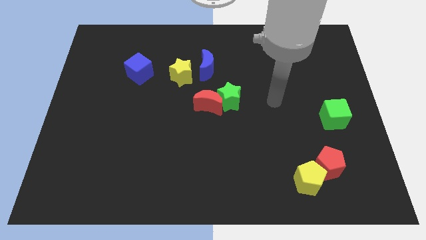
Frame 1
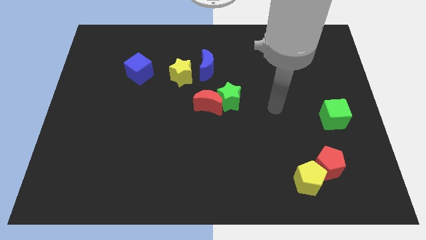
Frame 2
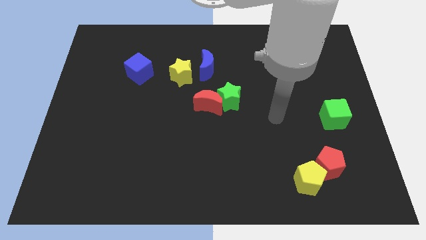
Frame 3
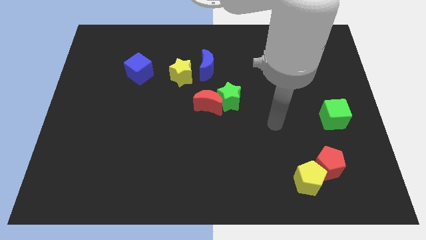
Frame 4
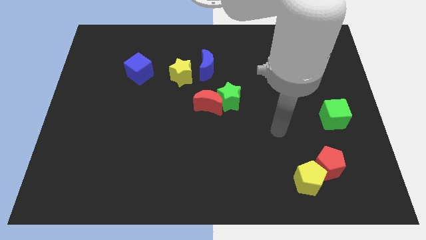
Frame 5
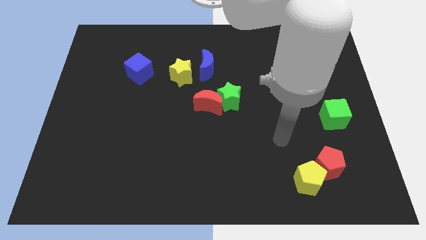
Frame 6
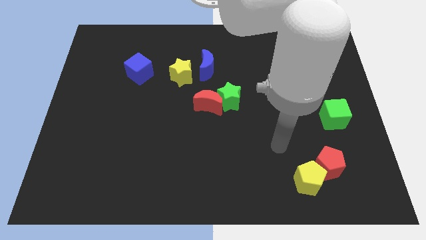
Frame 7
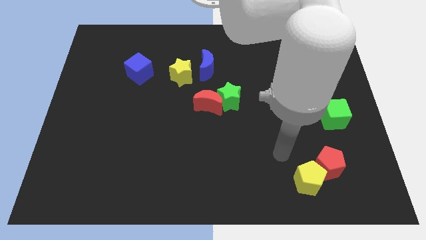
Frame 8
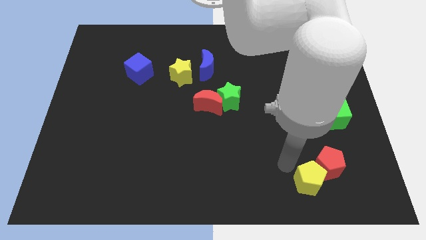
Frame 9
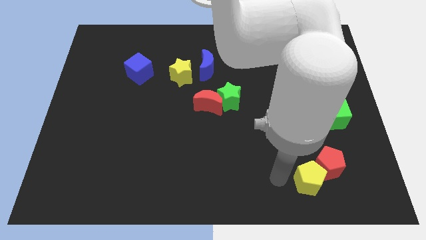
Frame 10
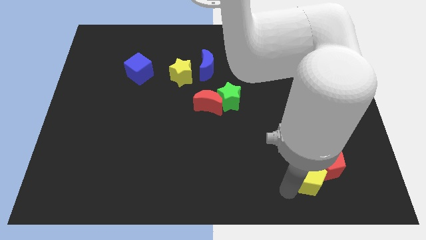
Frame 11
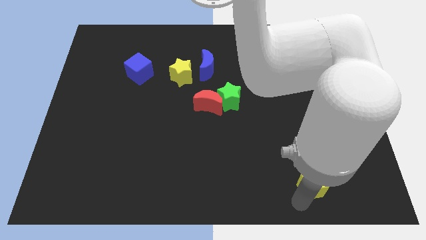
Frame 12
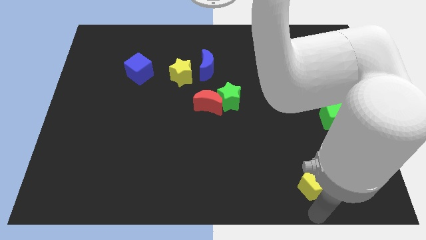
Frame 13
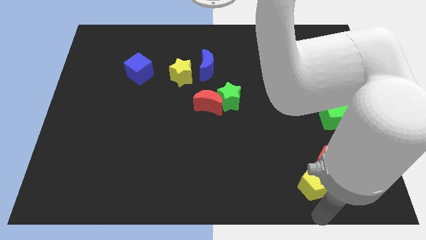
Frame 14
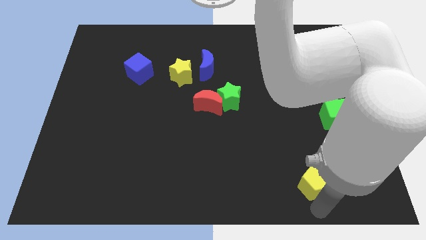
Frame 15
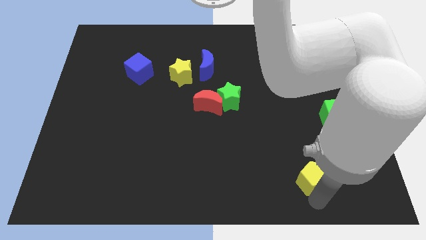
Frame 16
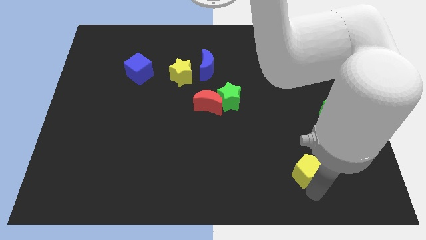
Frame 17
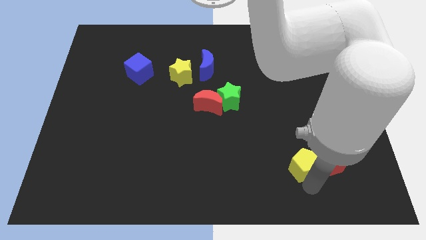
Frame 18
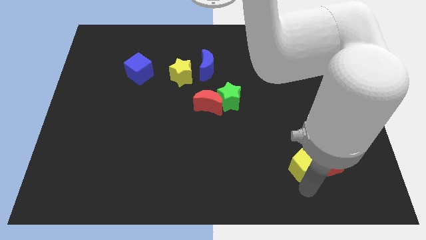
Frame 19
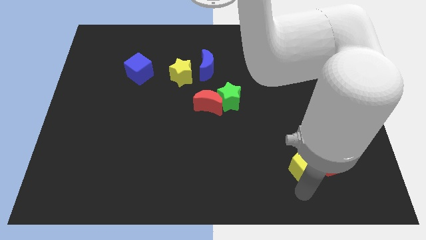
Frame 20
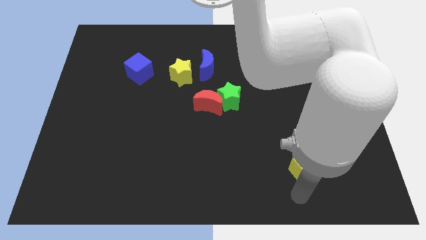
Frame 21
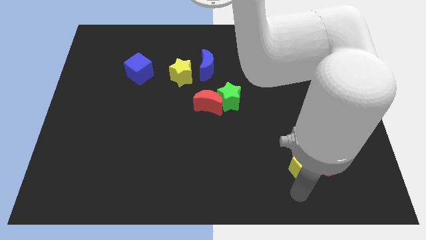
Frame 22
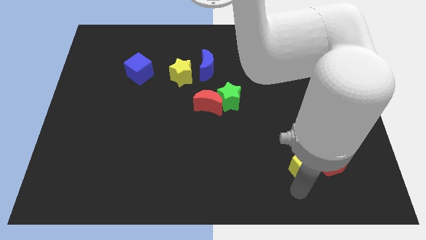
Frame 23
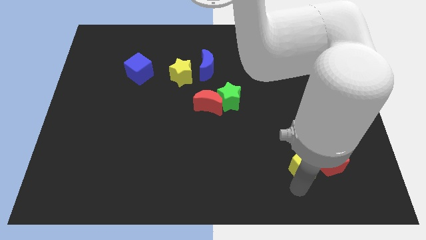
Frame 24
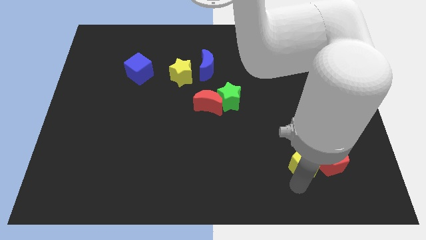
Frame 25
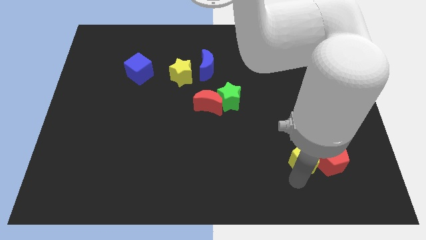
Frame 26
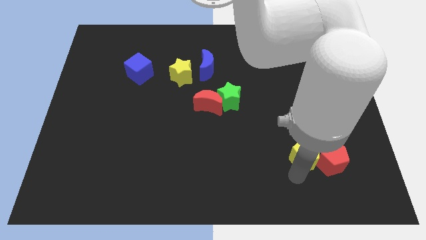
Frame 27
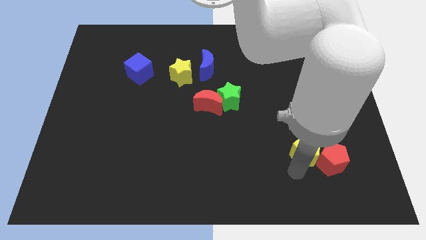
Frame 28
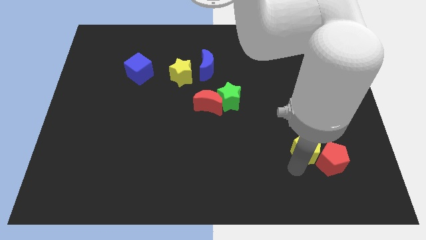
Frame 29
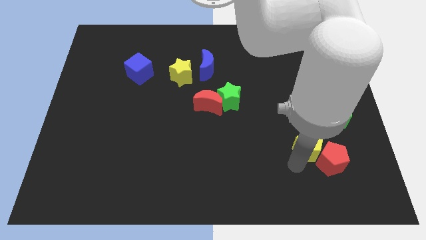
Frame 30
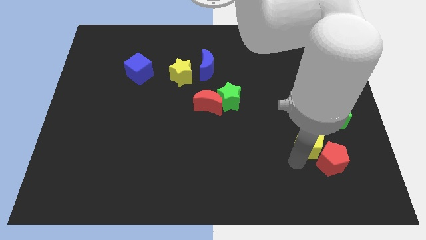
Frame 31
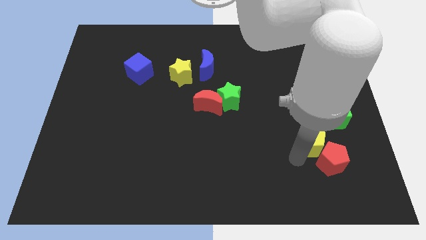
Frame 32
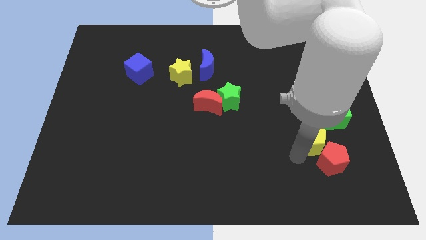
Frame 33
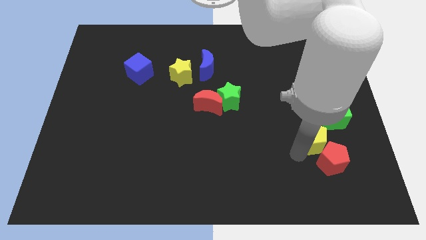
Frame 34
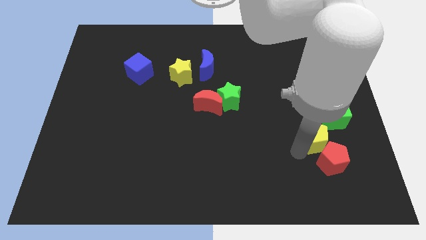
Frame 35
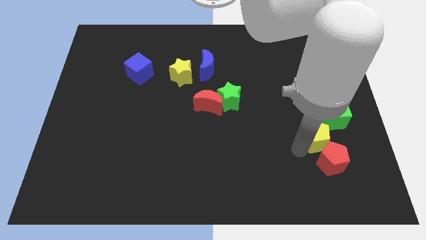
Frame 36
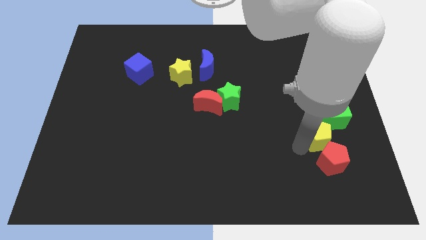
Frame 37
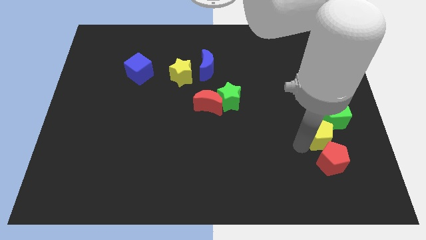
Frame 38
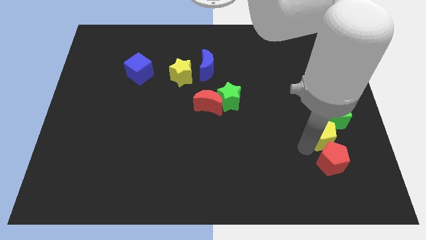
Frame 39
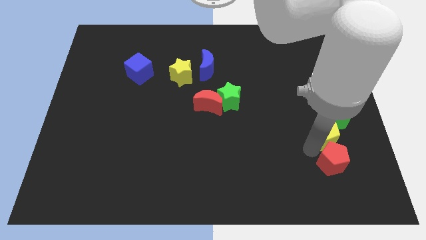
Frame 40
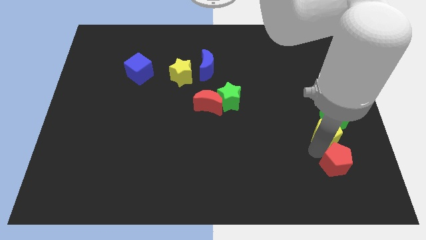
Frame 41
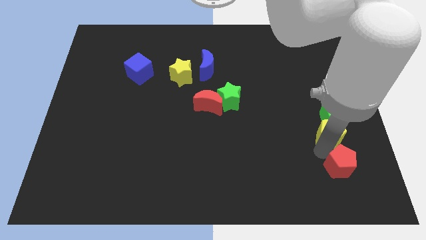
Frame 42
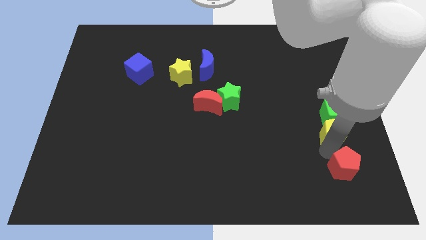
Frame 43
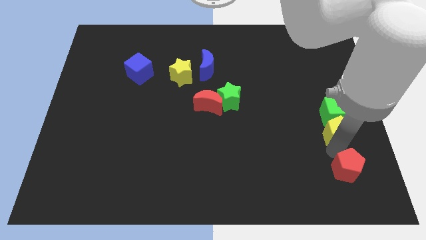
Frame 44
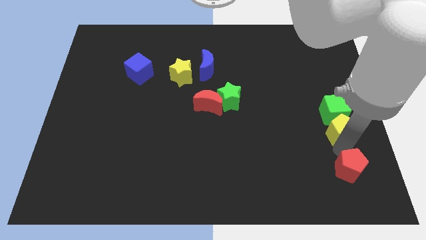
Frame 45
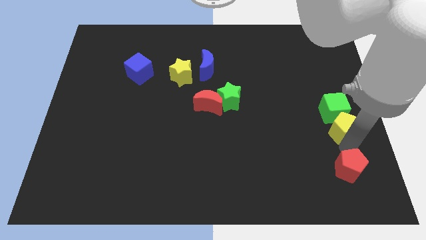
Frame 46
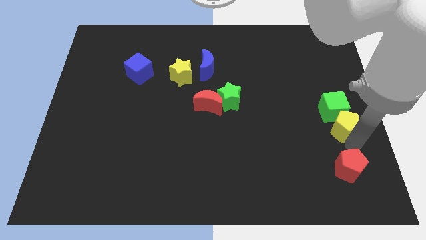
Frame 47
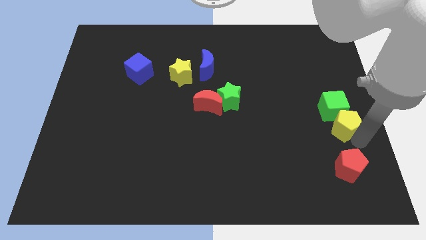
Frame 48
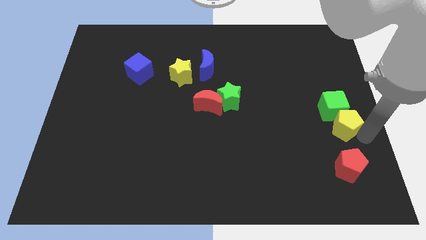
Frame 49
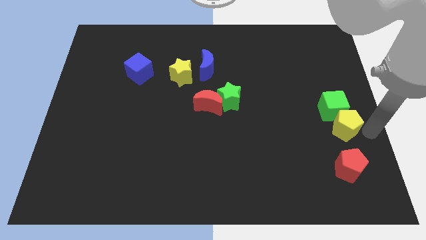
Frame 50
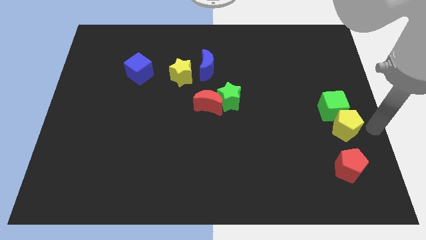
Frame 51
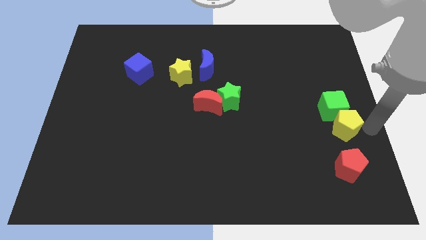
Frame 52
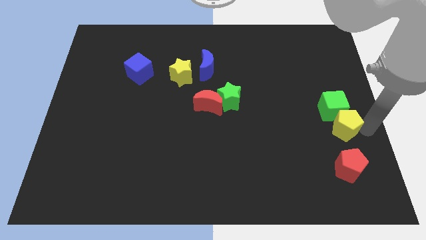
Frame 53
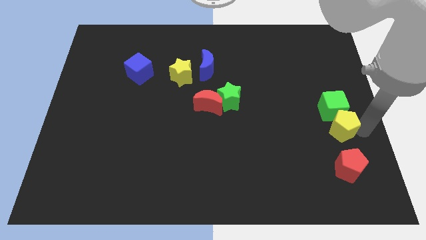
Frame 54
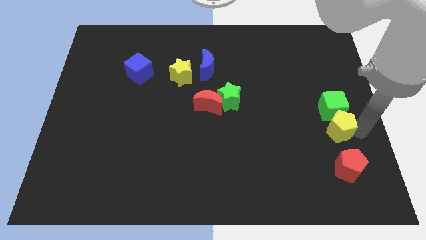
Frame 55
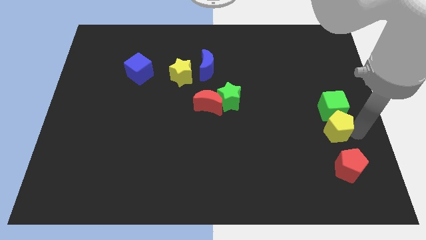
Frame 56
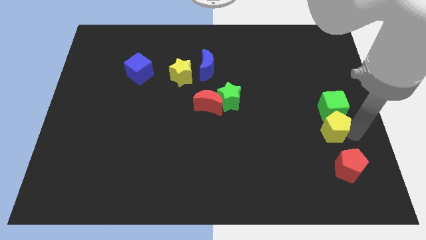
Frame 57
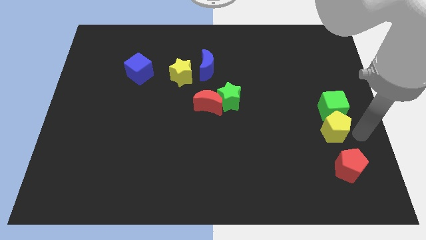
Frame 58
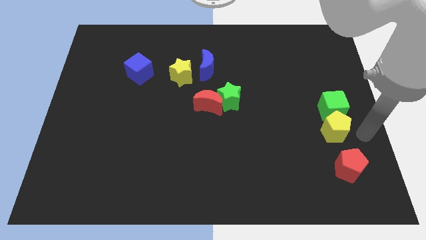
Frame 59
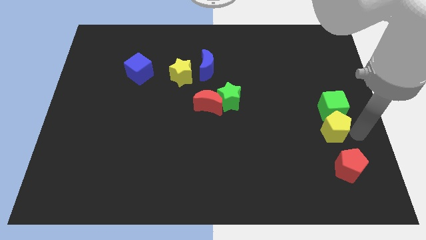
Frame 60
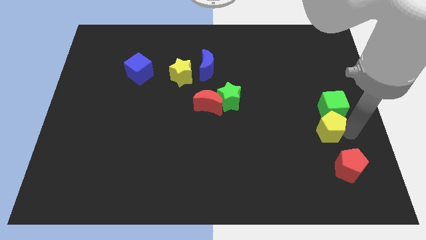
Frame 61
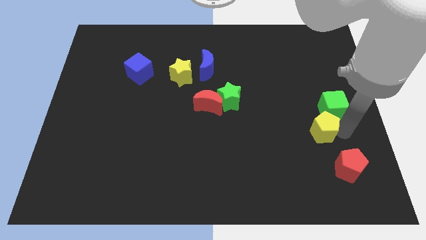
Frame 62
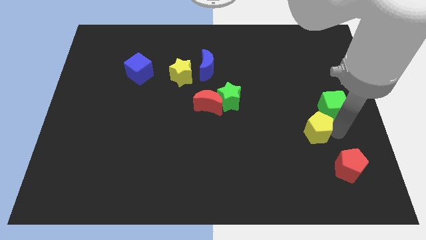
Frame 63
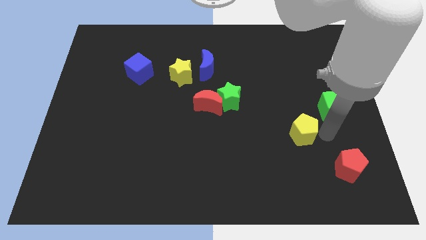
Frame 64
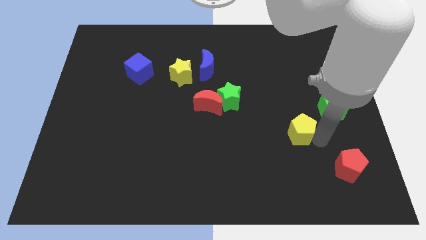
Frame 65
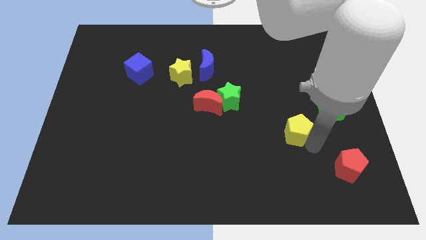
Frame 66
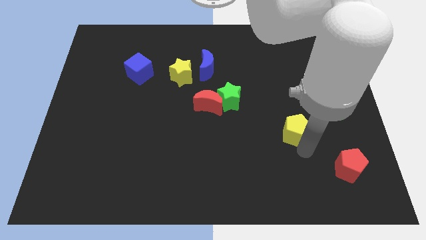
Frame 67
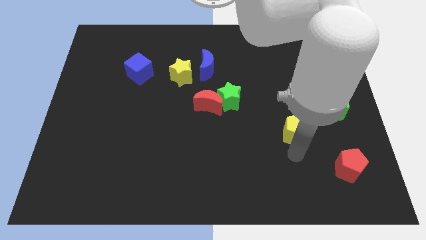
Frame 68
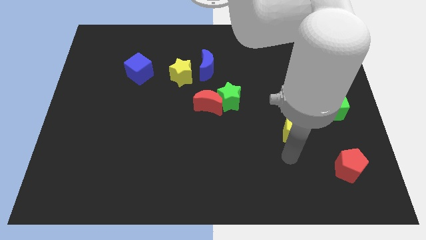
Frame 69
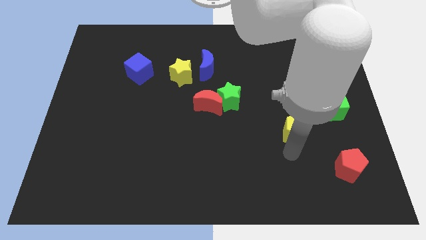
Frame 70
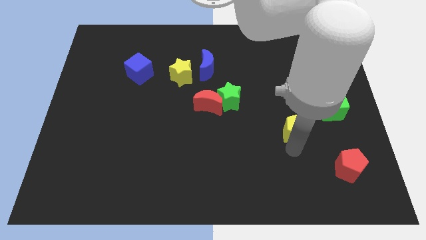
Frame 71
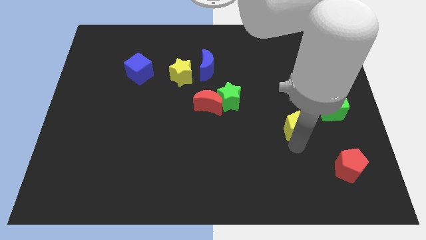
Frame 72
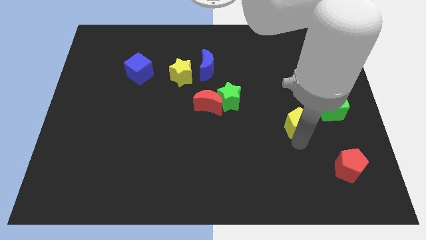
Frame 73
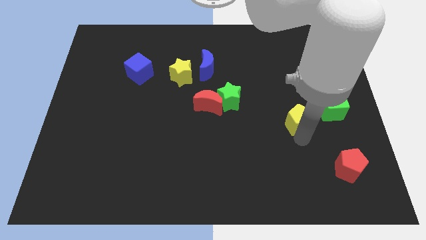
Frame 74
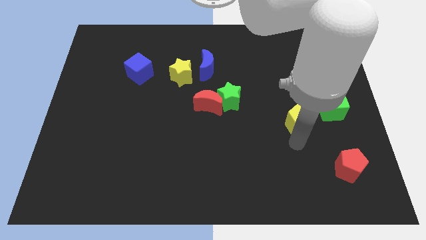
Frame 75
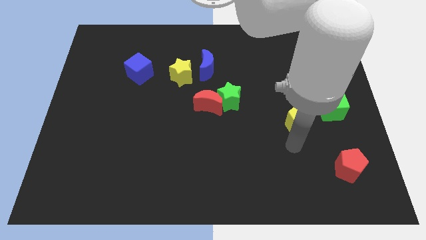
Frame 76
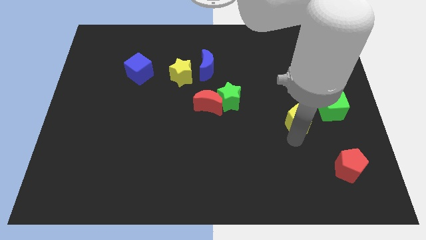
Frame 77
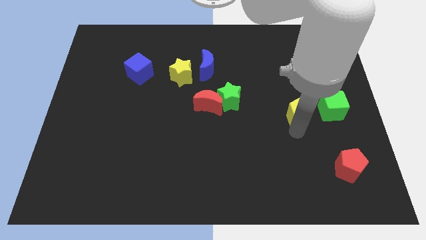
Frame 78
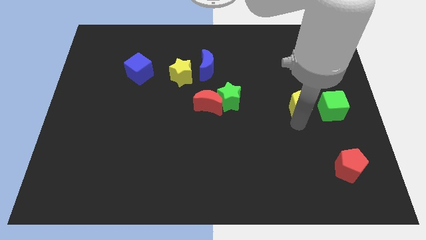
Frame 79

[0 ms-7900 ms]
push the yellow pentagon diagonally up and to the left of the green cube
